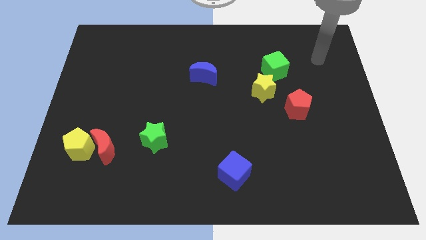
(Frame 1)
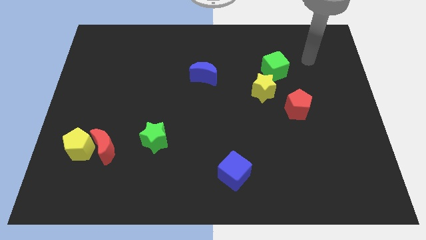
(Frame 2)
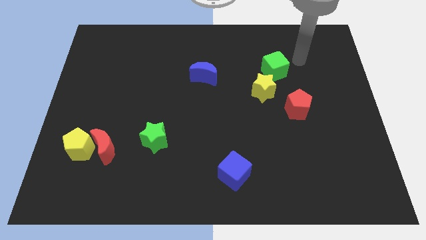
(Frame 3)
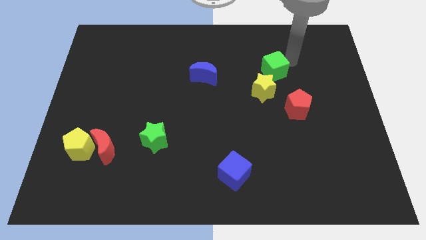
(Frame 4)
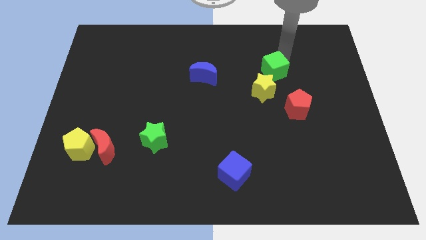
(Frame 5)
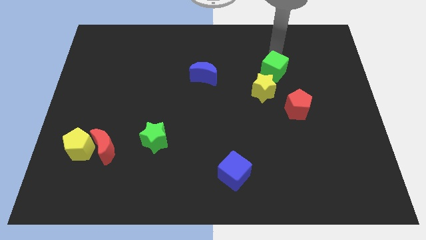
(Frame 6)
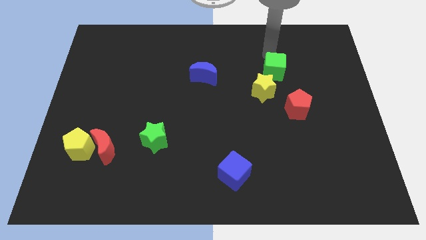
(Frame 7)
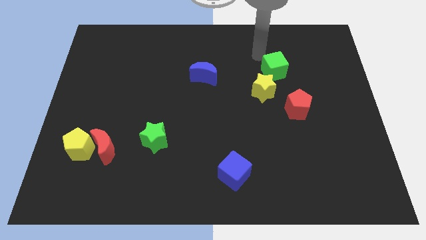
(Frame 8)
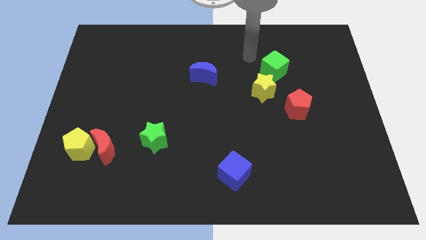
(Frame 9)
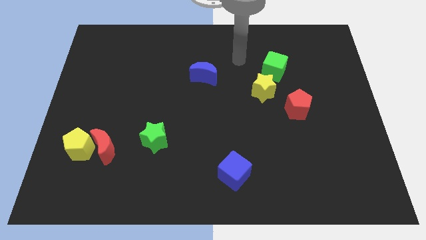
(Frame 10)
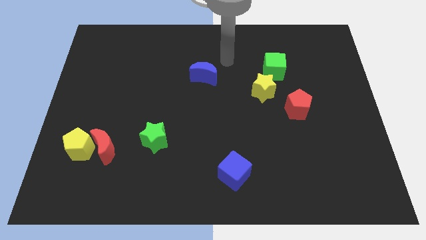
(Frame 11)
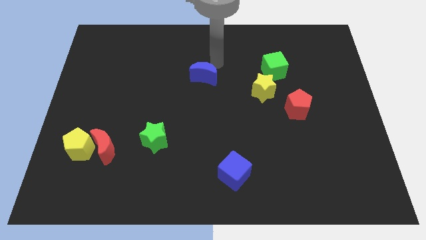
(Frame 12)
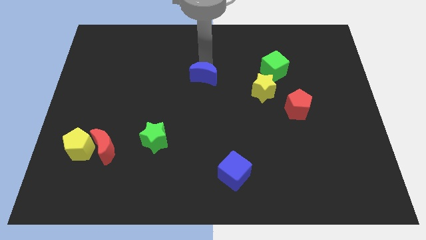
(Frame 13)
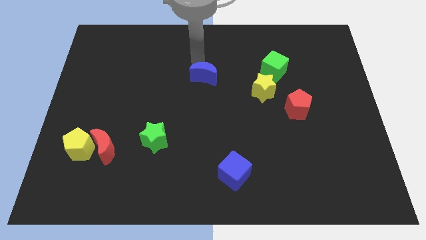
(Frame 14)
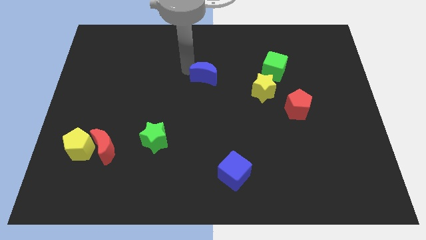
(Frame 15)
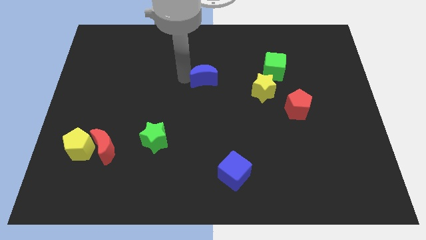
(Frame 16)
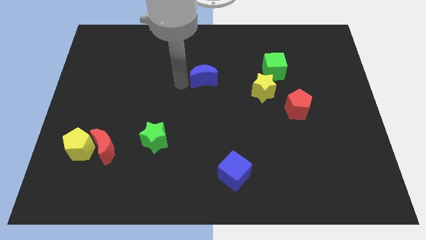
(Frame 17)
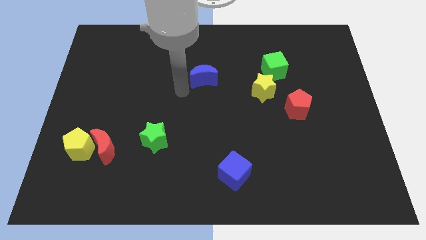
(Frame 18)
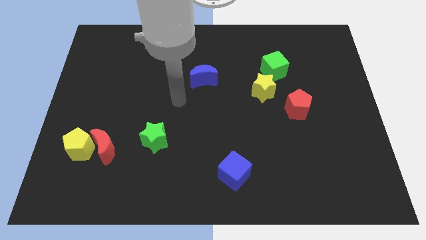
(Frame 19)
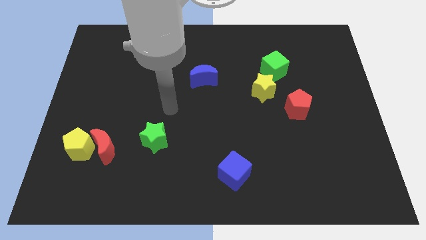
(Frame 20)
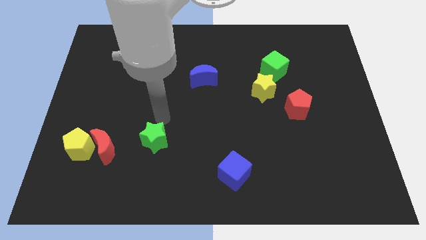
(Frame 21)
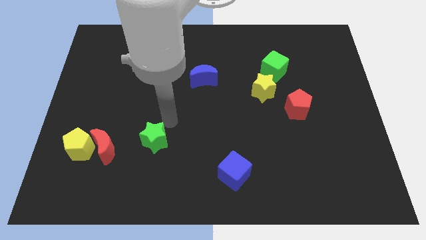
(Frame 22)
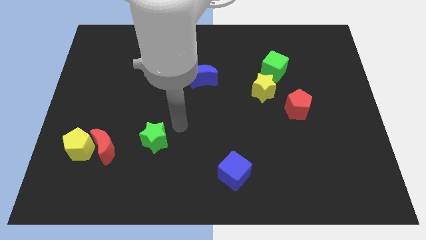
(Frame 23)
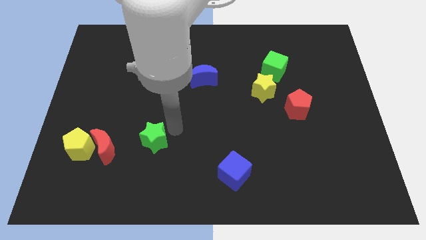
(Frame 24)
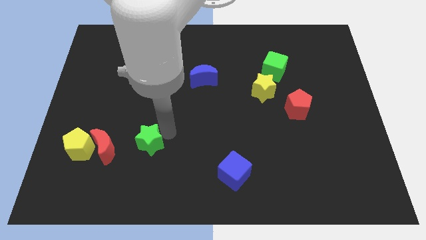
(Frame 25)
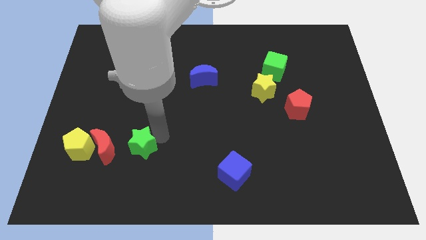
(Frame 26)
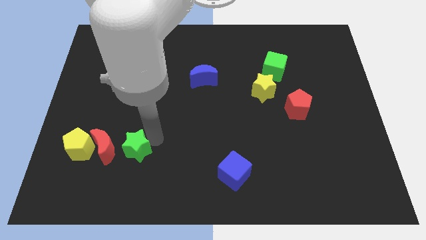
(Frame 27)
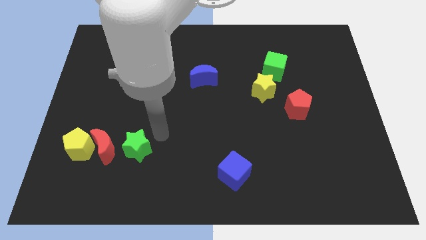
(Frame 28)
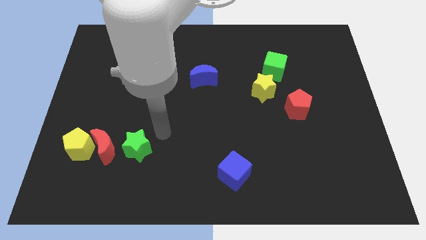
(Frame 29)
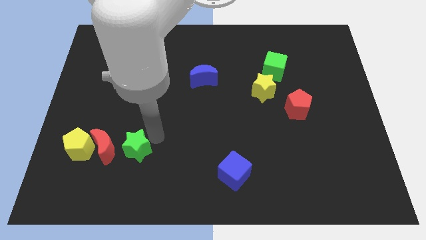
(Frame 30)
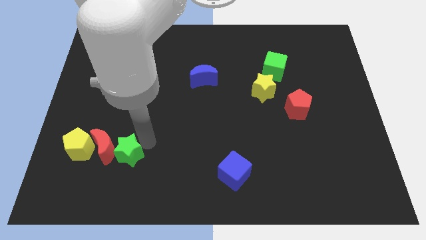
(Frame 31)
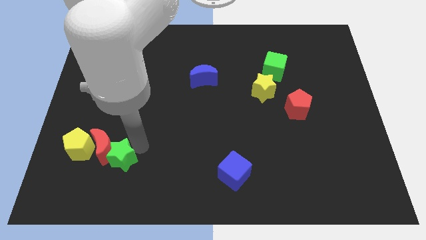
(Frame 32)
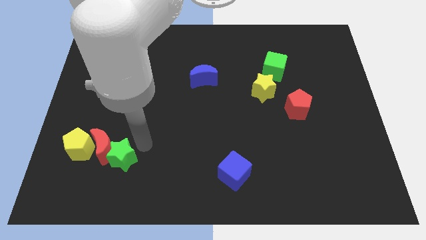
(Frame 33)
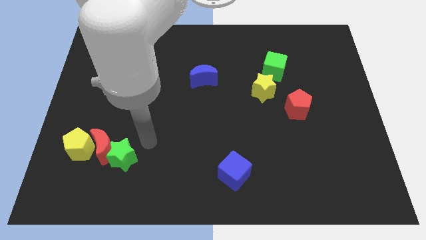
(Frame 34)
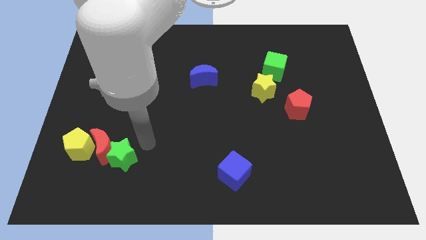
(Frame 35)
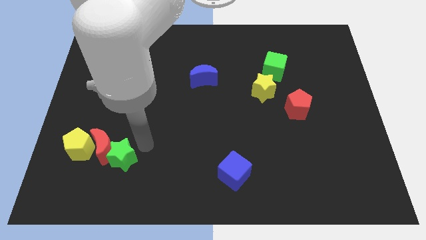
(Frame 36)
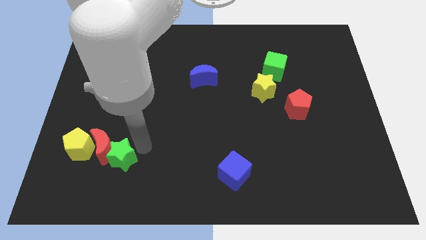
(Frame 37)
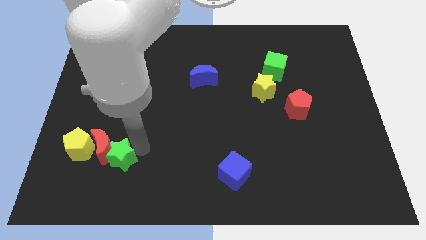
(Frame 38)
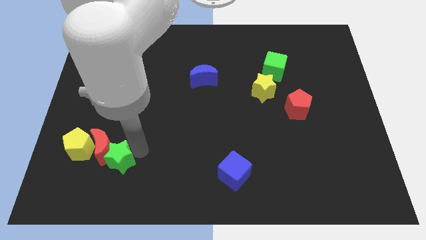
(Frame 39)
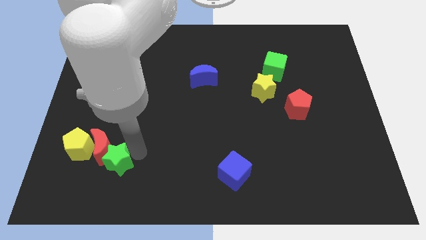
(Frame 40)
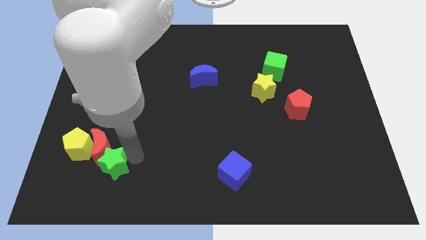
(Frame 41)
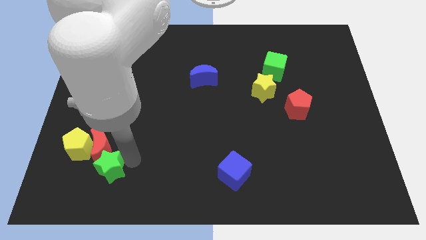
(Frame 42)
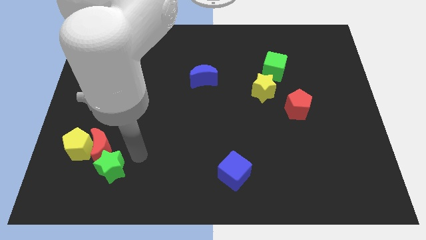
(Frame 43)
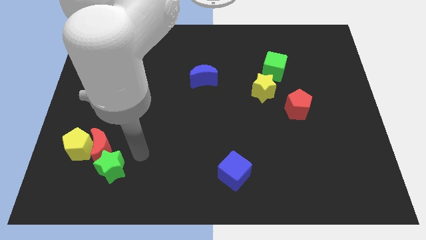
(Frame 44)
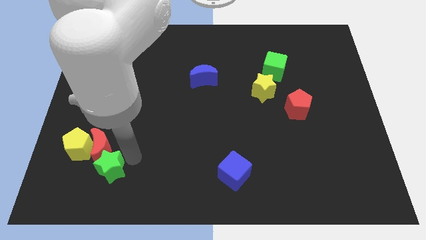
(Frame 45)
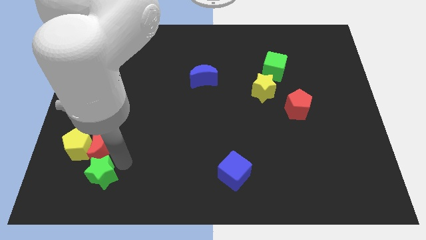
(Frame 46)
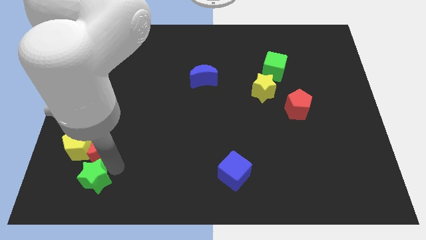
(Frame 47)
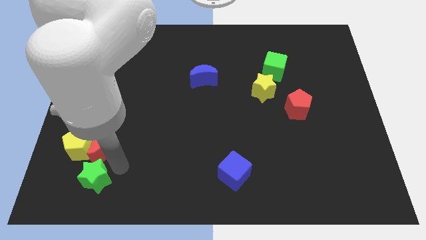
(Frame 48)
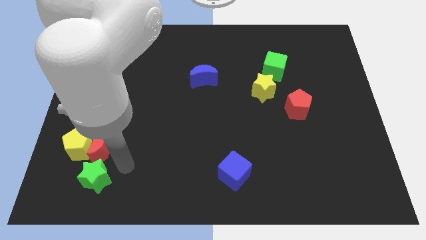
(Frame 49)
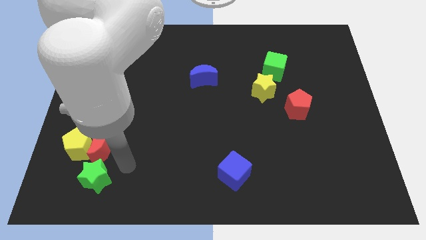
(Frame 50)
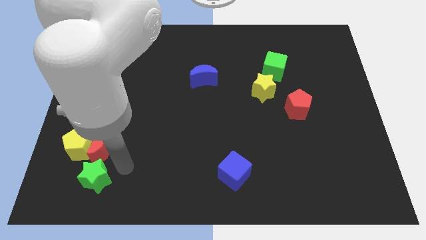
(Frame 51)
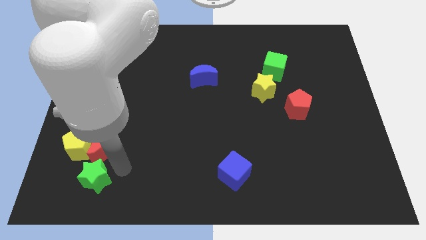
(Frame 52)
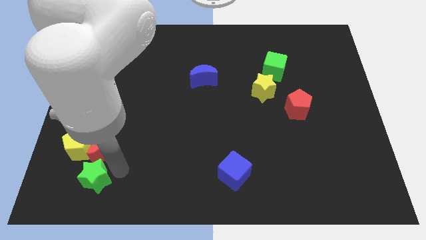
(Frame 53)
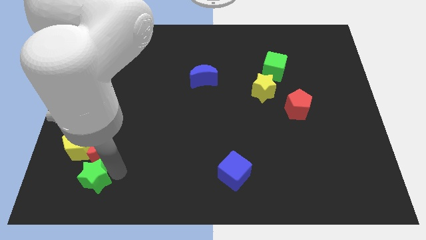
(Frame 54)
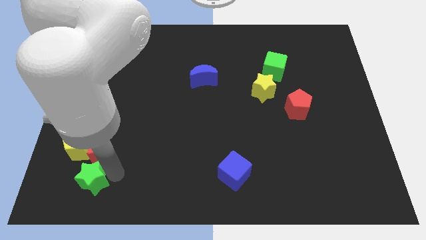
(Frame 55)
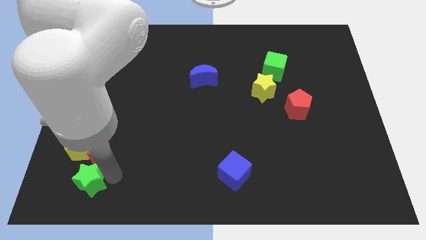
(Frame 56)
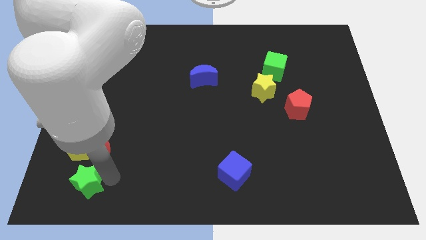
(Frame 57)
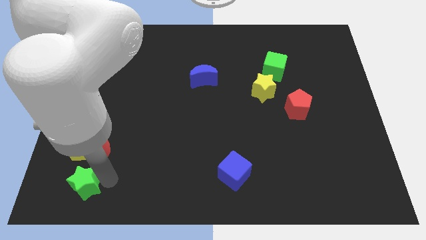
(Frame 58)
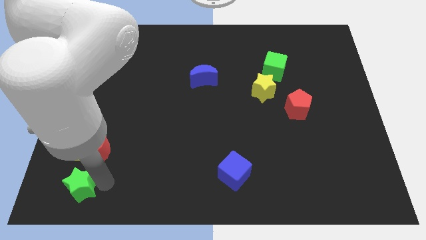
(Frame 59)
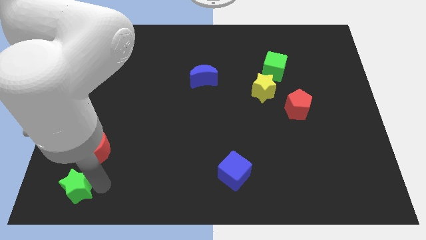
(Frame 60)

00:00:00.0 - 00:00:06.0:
push the green star to the bottom left of the board
